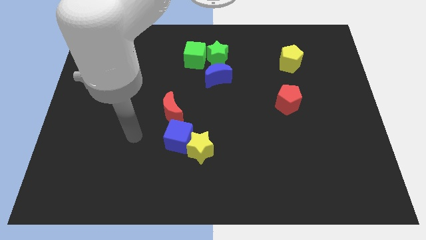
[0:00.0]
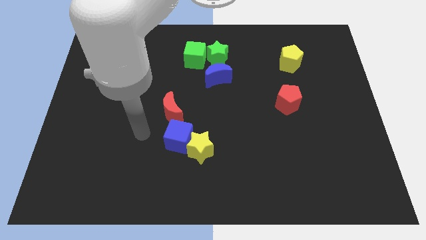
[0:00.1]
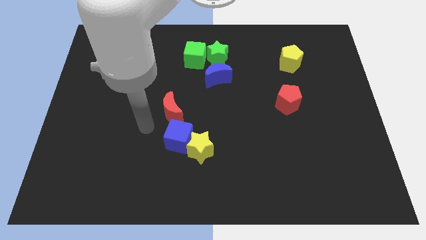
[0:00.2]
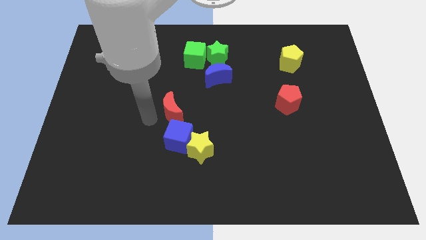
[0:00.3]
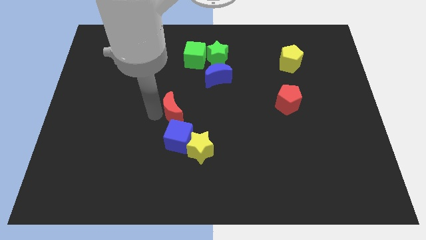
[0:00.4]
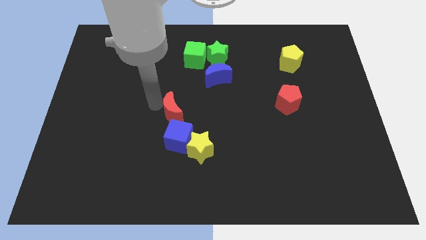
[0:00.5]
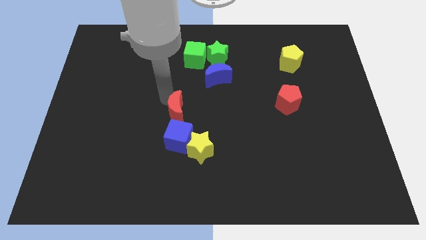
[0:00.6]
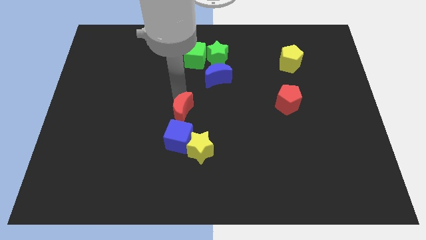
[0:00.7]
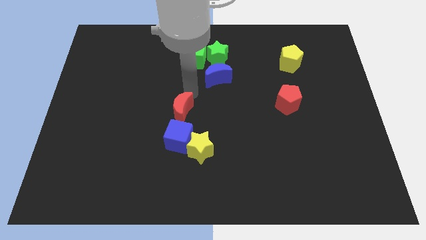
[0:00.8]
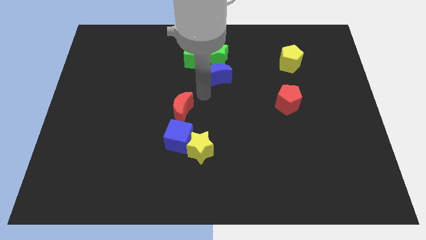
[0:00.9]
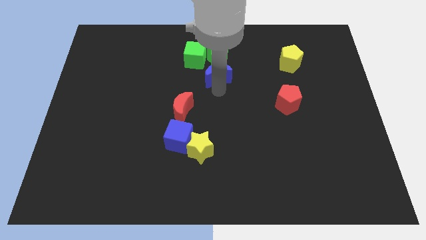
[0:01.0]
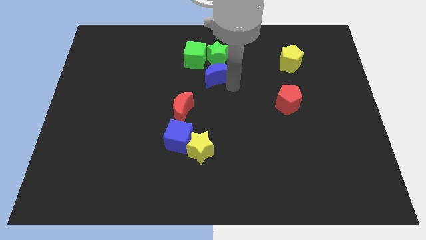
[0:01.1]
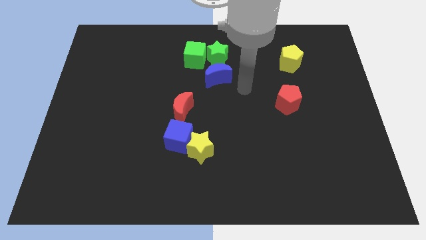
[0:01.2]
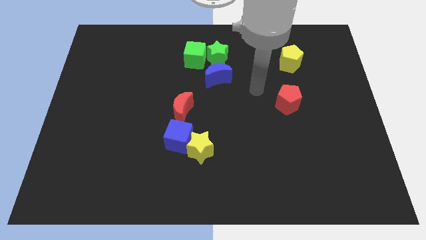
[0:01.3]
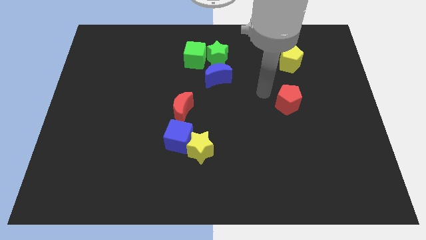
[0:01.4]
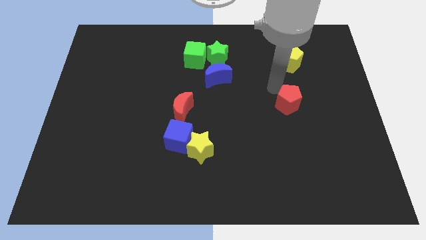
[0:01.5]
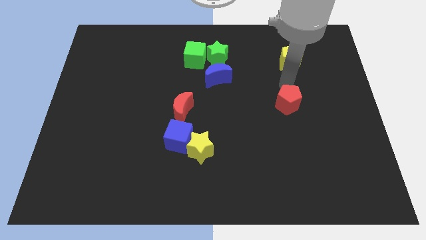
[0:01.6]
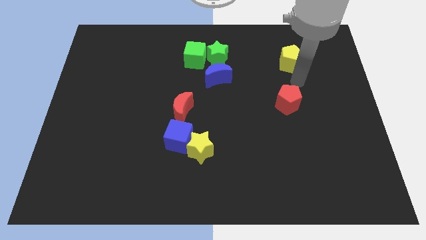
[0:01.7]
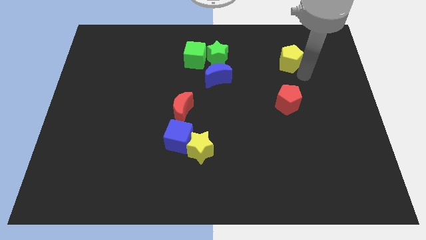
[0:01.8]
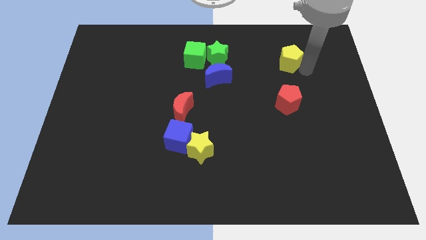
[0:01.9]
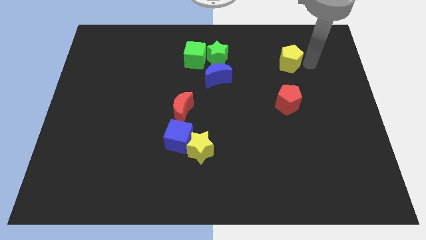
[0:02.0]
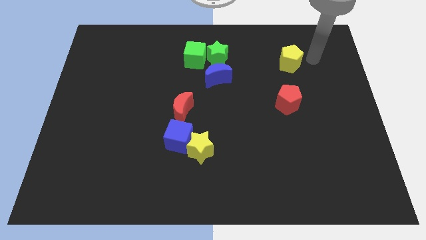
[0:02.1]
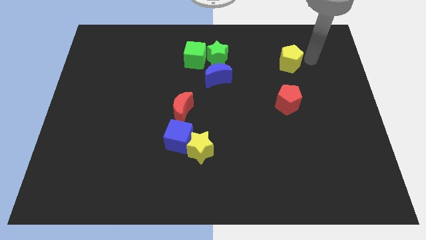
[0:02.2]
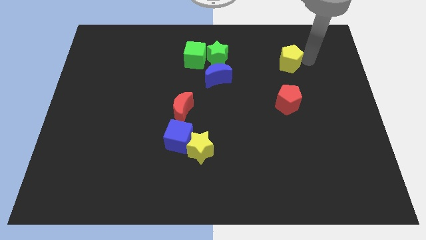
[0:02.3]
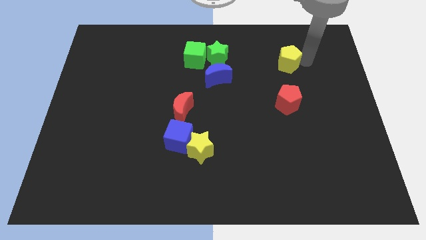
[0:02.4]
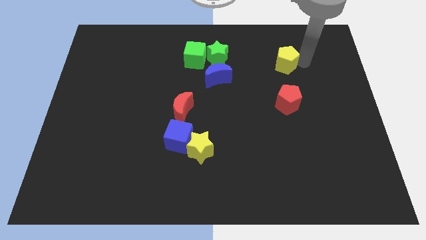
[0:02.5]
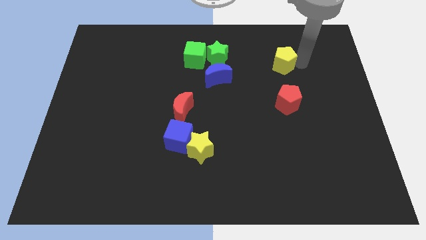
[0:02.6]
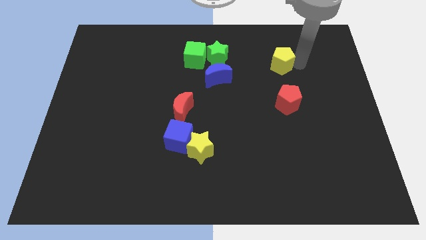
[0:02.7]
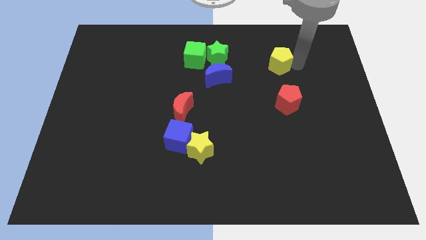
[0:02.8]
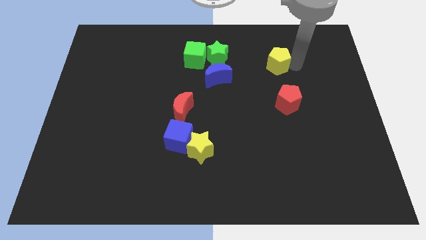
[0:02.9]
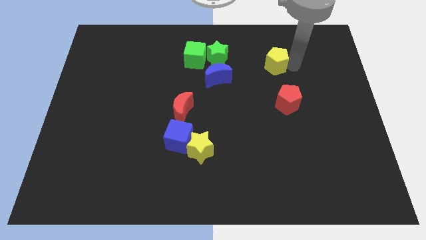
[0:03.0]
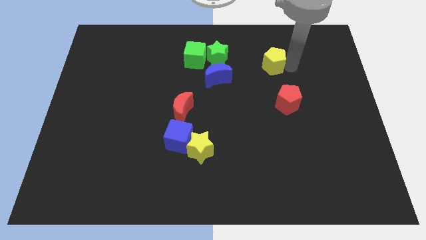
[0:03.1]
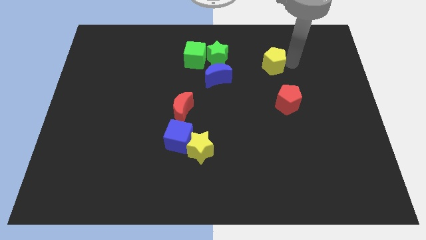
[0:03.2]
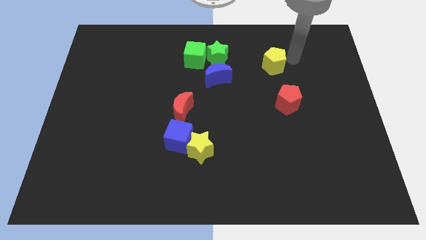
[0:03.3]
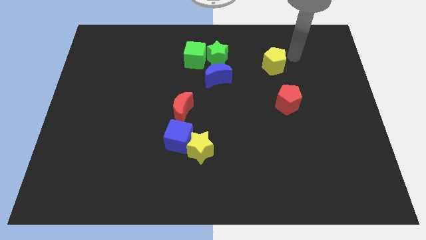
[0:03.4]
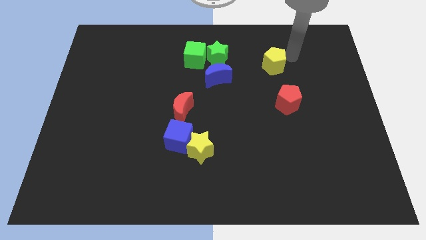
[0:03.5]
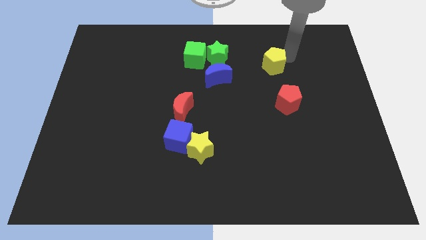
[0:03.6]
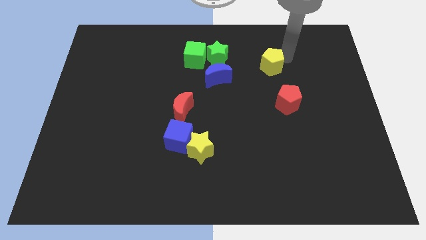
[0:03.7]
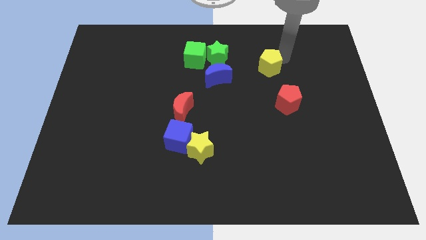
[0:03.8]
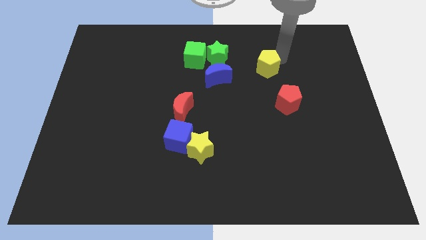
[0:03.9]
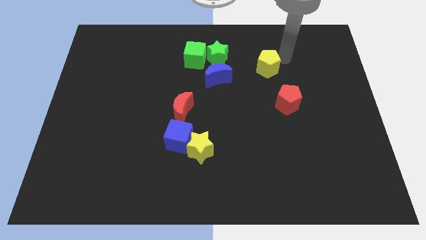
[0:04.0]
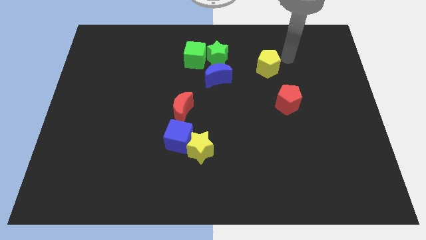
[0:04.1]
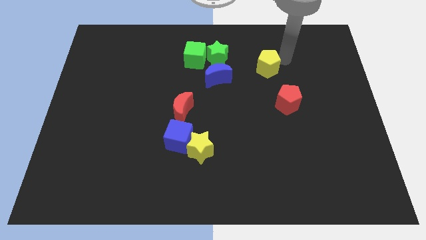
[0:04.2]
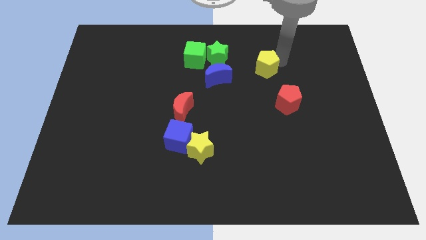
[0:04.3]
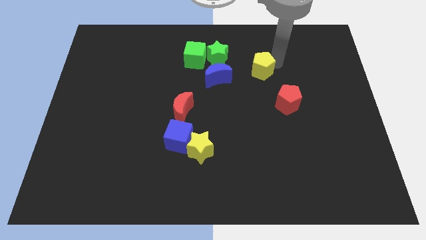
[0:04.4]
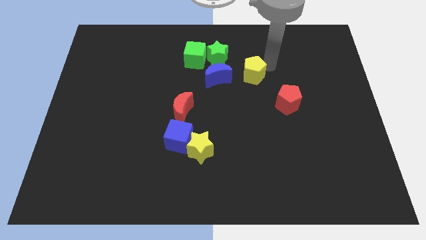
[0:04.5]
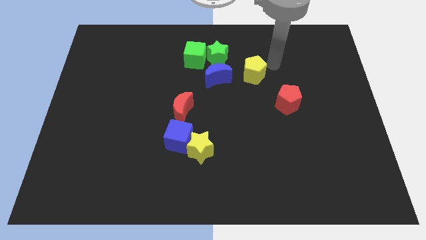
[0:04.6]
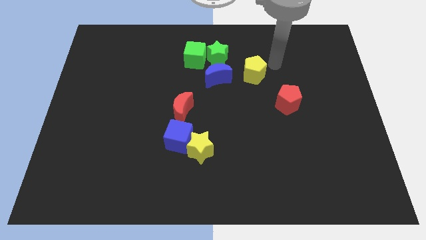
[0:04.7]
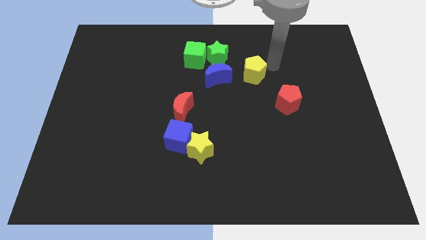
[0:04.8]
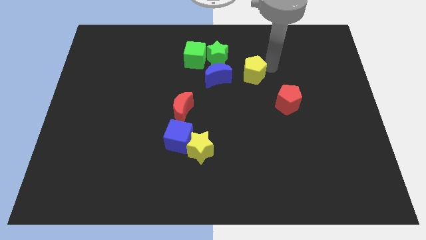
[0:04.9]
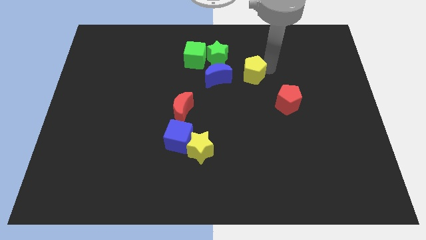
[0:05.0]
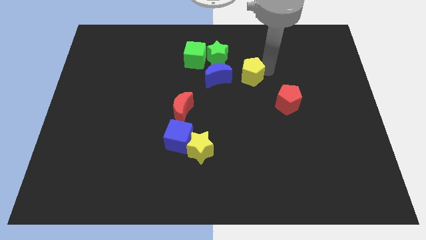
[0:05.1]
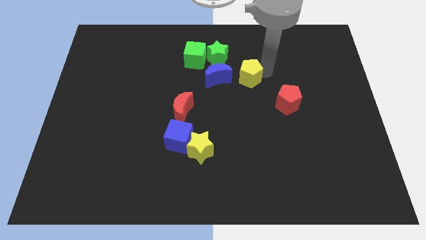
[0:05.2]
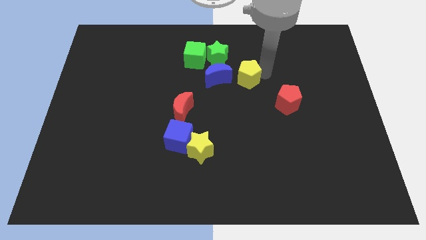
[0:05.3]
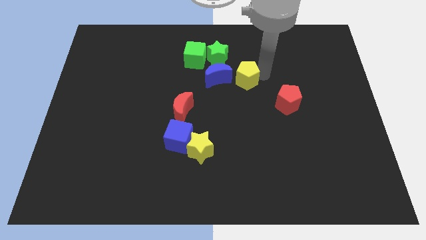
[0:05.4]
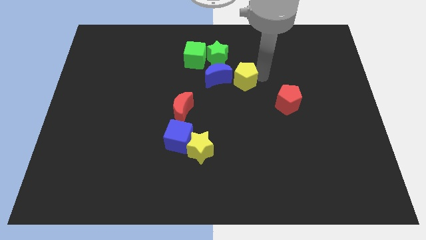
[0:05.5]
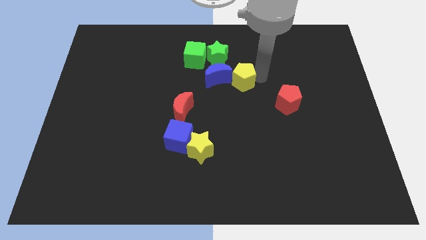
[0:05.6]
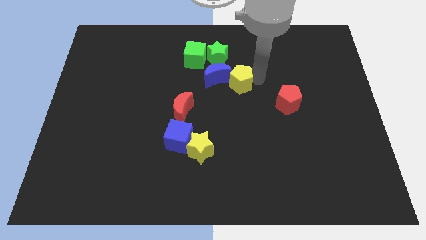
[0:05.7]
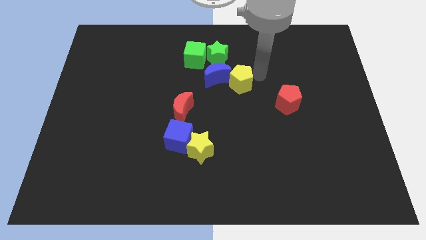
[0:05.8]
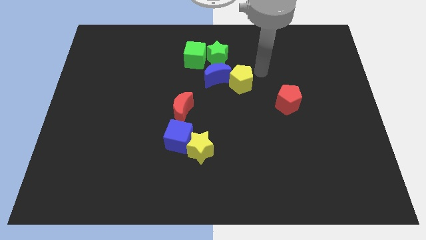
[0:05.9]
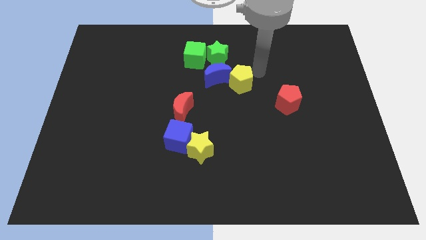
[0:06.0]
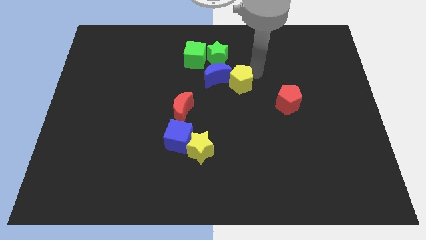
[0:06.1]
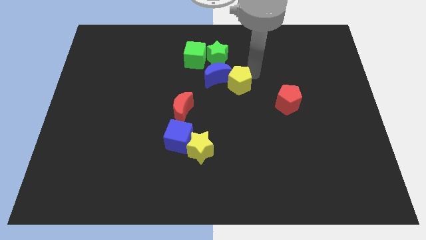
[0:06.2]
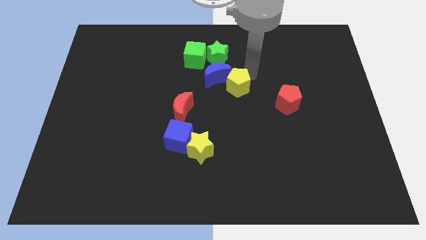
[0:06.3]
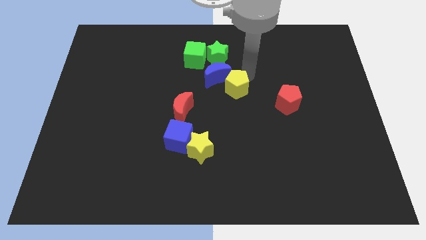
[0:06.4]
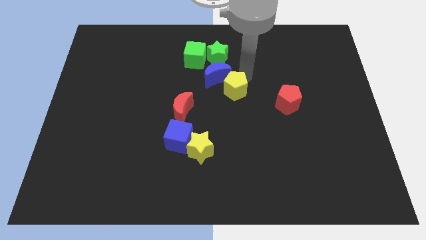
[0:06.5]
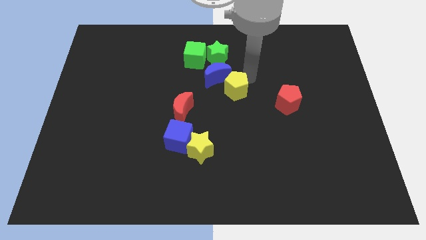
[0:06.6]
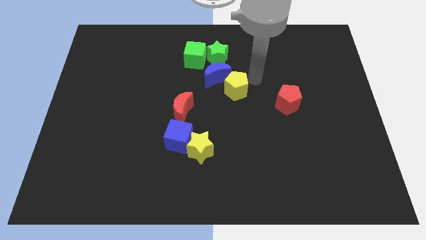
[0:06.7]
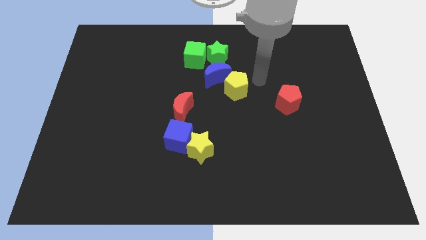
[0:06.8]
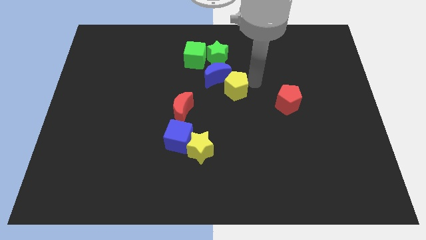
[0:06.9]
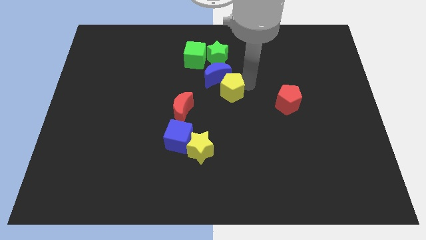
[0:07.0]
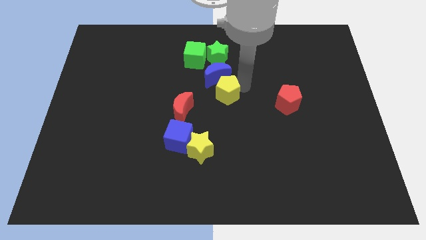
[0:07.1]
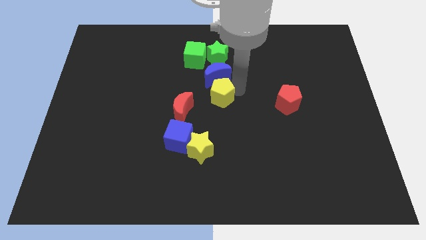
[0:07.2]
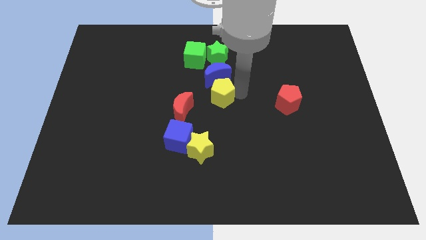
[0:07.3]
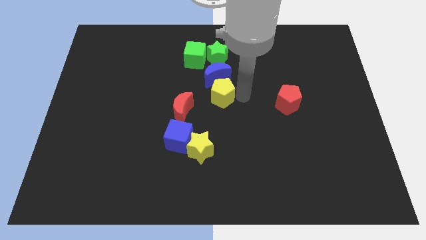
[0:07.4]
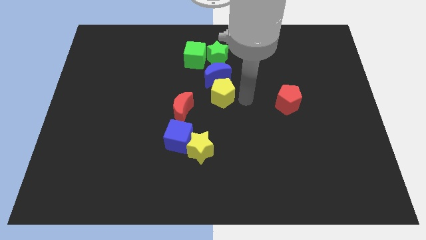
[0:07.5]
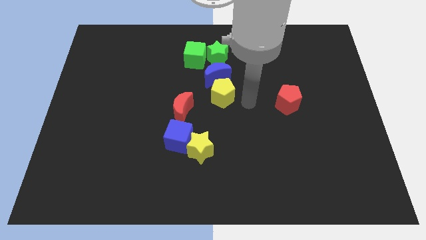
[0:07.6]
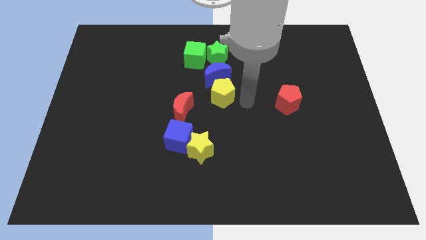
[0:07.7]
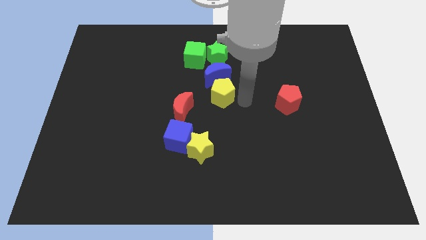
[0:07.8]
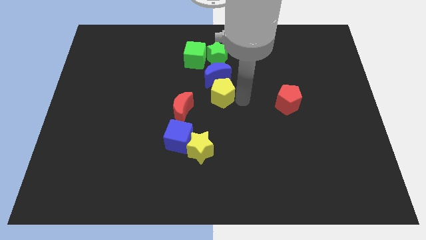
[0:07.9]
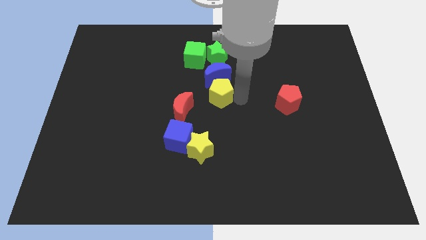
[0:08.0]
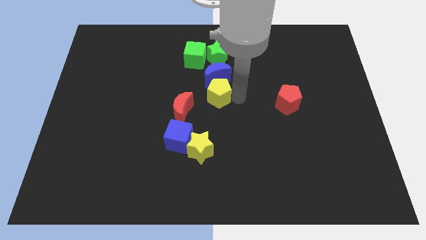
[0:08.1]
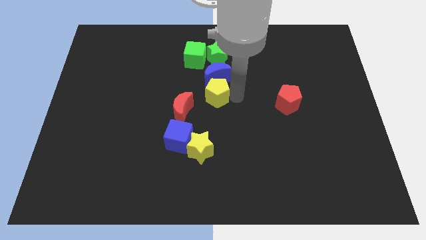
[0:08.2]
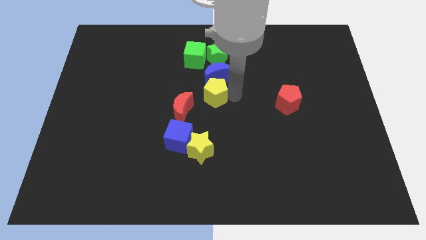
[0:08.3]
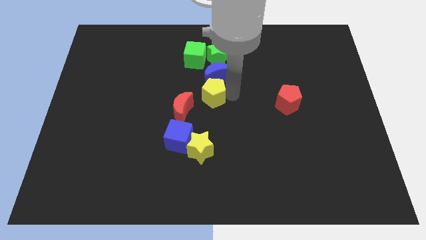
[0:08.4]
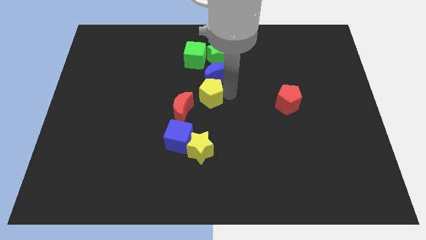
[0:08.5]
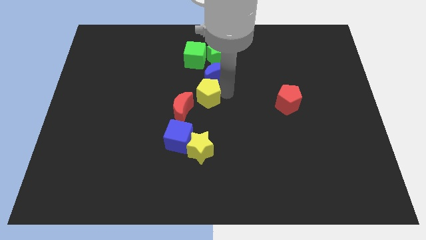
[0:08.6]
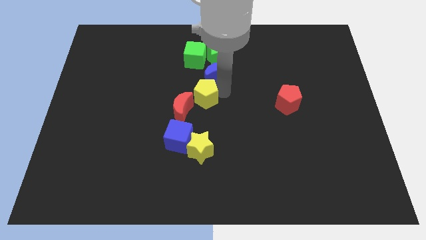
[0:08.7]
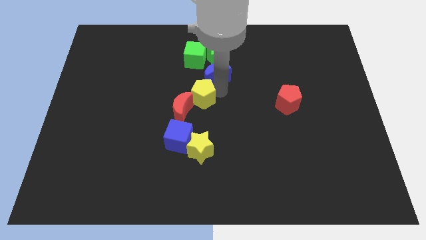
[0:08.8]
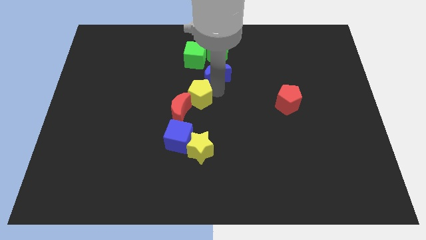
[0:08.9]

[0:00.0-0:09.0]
slide the yellow pentagon above the red moon
